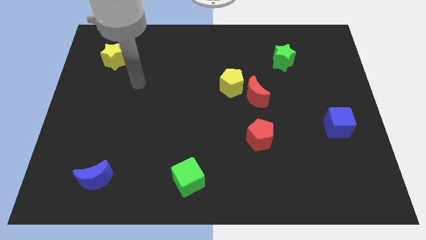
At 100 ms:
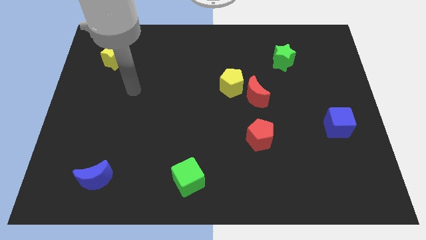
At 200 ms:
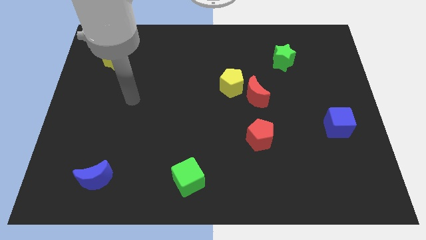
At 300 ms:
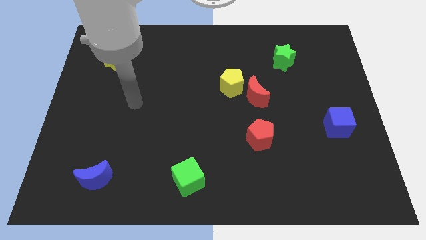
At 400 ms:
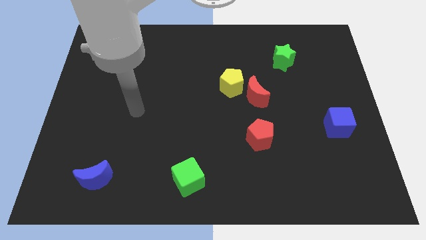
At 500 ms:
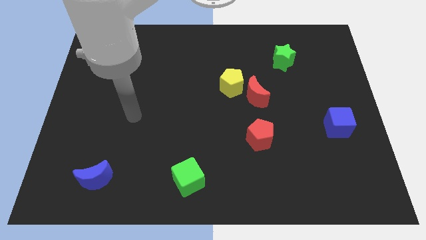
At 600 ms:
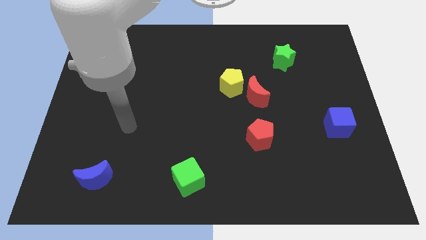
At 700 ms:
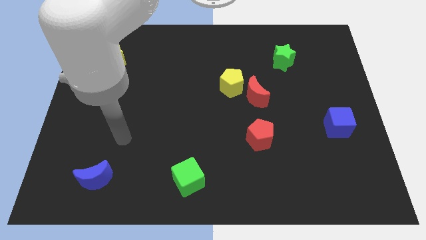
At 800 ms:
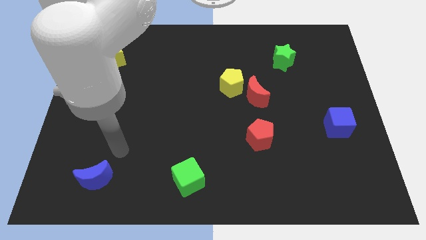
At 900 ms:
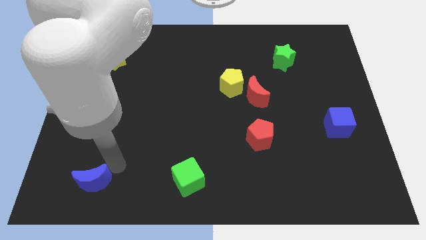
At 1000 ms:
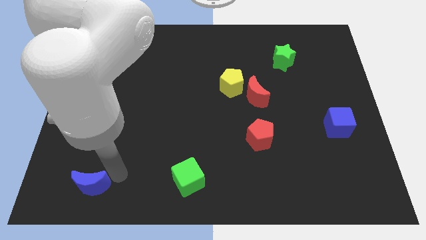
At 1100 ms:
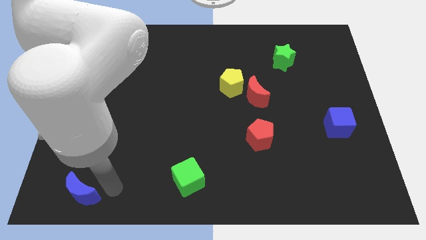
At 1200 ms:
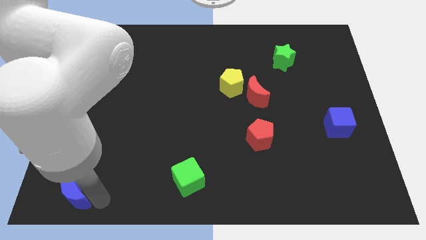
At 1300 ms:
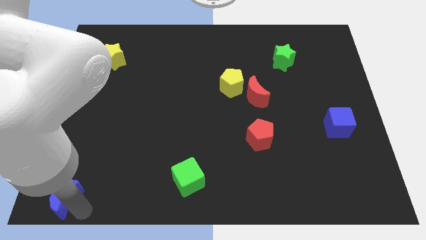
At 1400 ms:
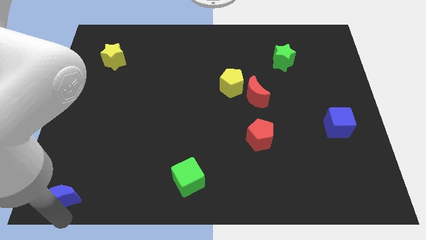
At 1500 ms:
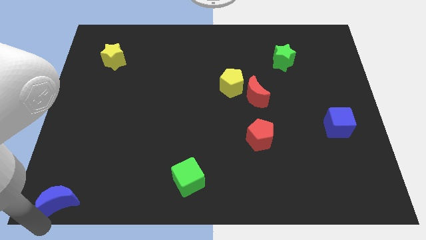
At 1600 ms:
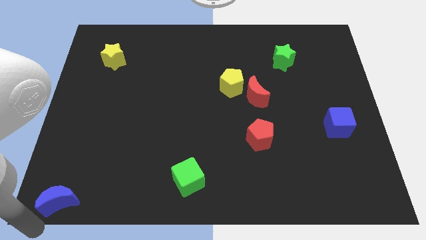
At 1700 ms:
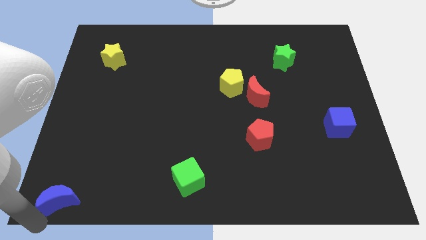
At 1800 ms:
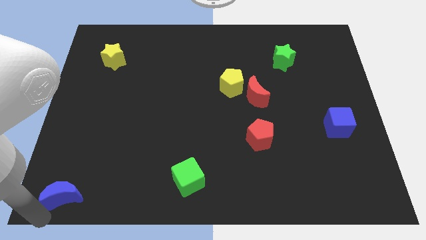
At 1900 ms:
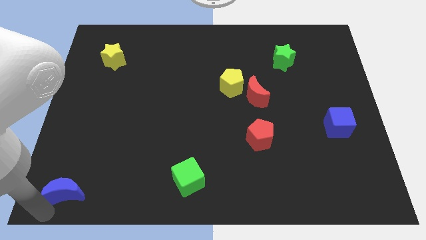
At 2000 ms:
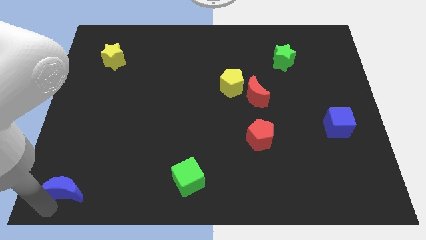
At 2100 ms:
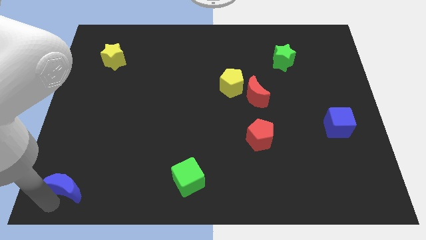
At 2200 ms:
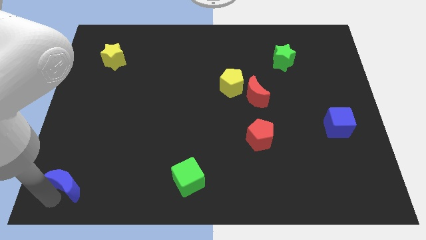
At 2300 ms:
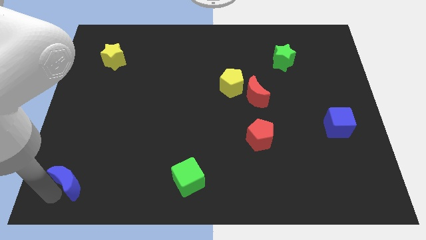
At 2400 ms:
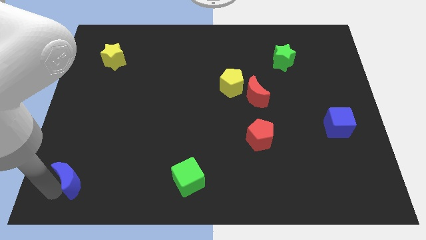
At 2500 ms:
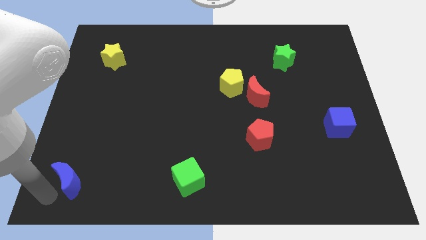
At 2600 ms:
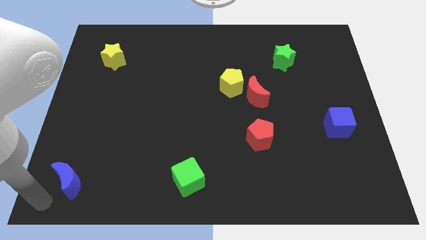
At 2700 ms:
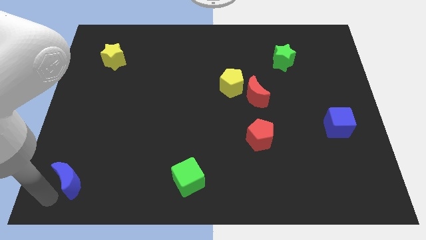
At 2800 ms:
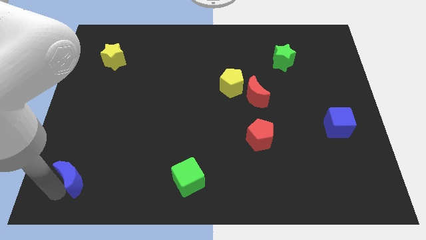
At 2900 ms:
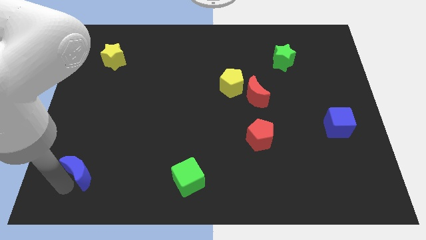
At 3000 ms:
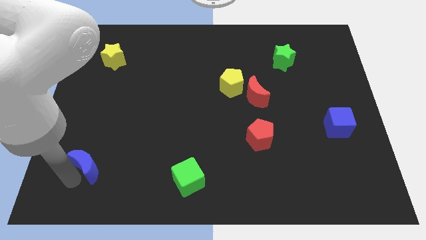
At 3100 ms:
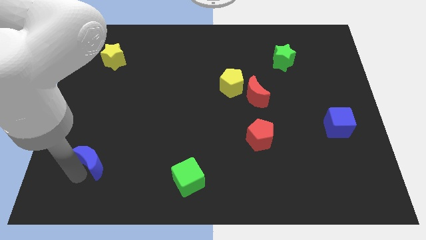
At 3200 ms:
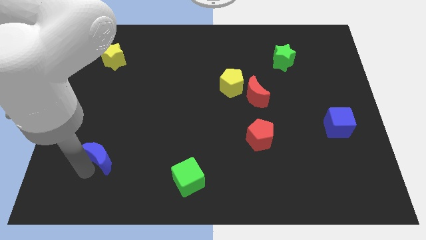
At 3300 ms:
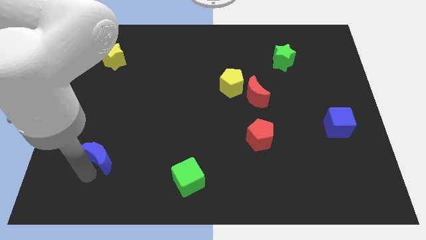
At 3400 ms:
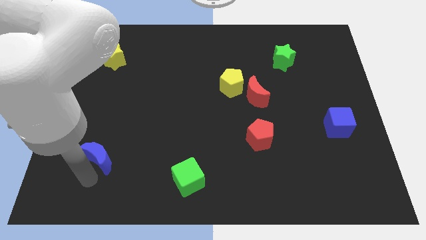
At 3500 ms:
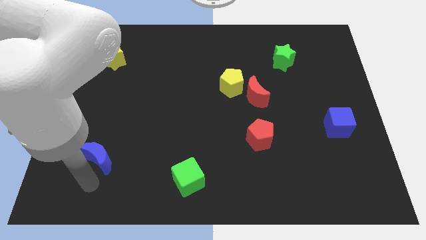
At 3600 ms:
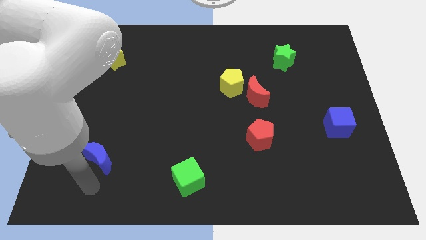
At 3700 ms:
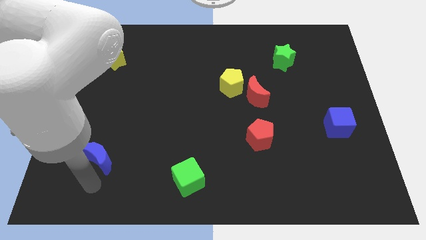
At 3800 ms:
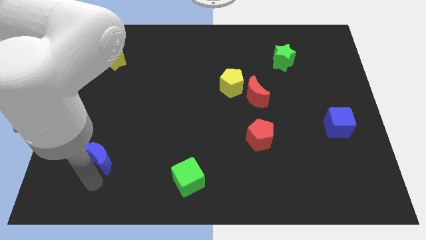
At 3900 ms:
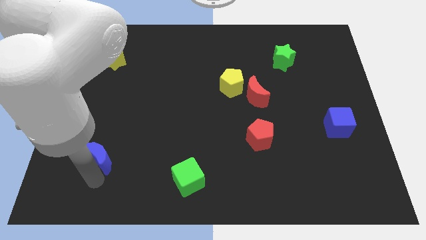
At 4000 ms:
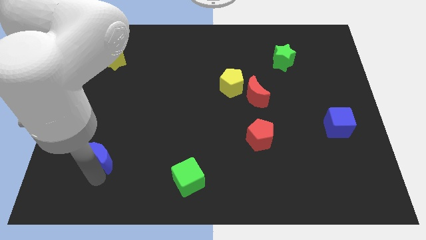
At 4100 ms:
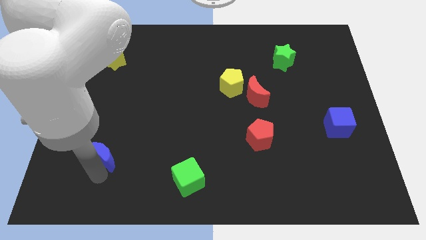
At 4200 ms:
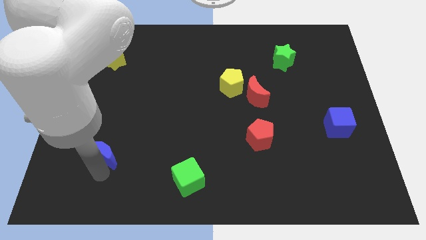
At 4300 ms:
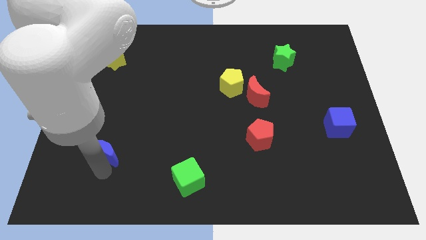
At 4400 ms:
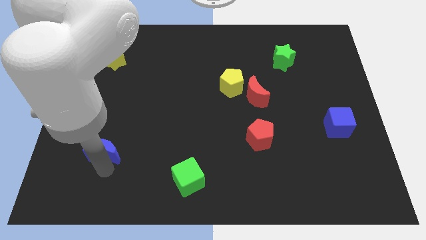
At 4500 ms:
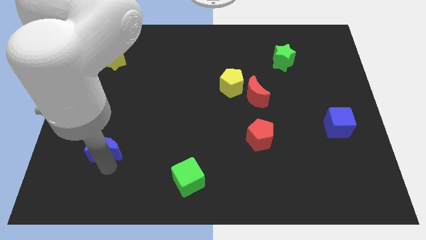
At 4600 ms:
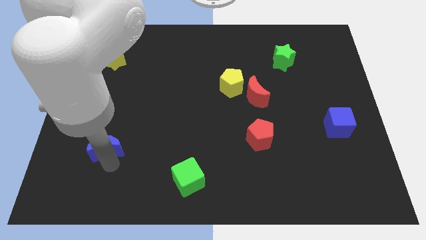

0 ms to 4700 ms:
push the blue moon upwards a little

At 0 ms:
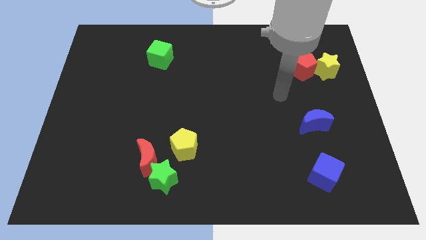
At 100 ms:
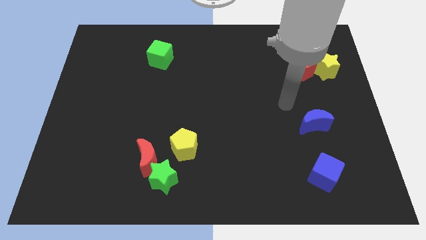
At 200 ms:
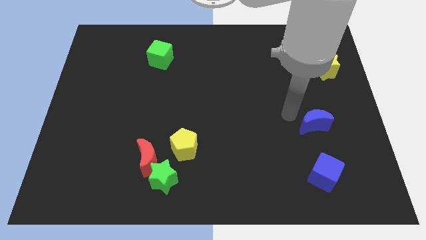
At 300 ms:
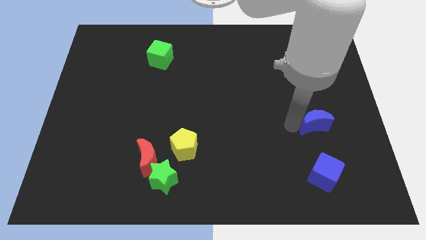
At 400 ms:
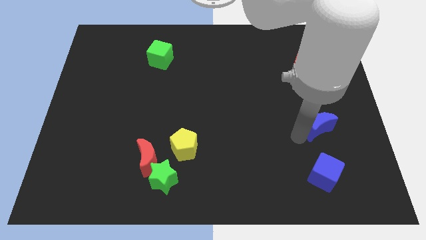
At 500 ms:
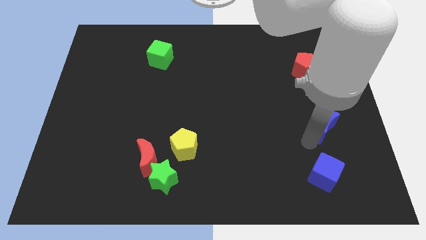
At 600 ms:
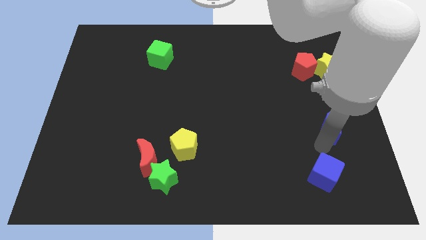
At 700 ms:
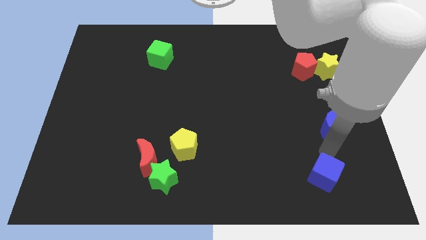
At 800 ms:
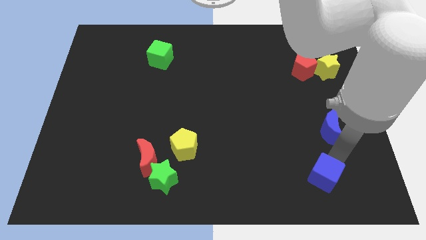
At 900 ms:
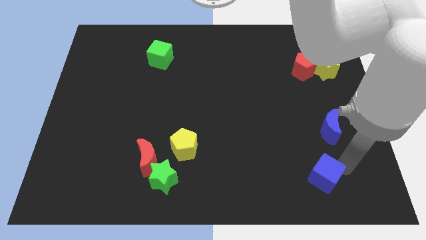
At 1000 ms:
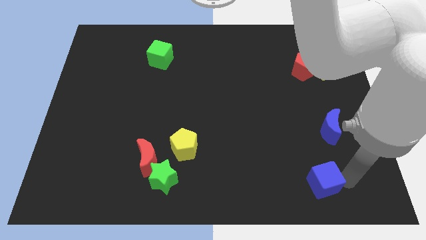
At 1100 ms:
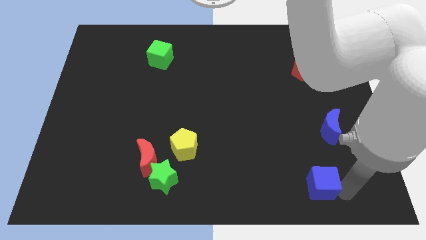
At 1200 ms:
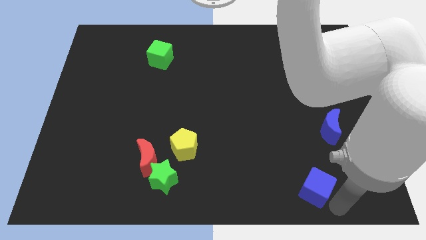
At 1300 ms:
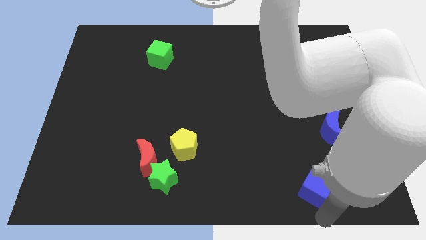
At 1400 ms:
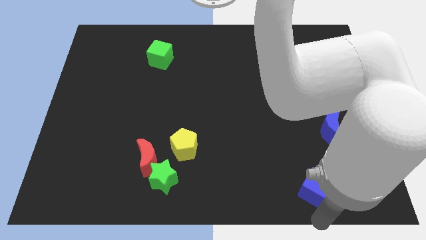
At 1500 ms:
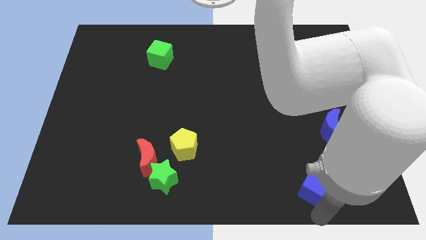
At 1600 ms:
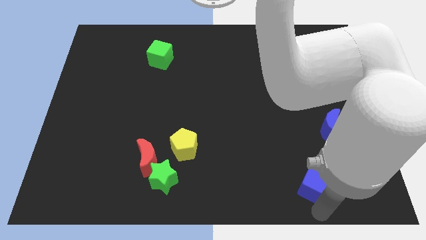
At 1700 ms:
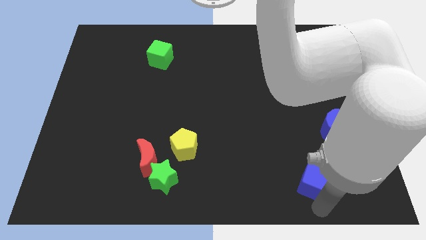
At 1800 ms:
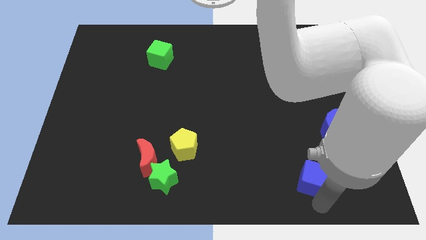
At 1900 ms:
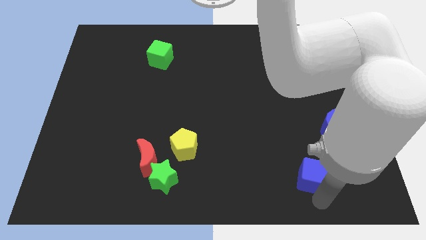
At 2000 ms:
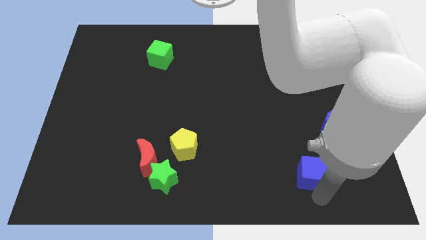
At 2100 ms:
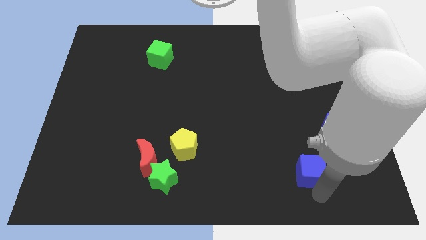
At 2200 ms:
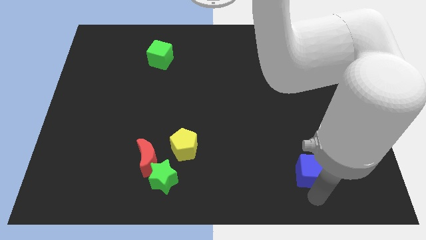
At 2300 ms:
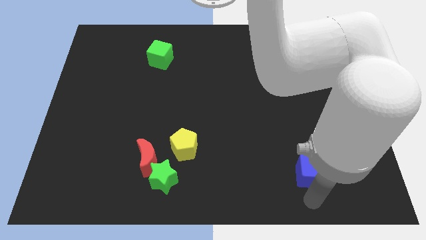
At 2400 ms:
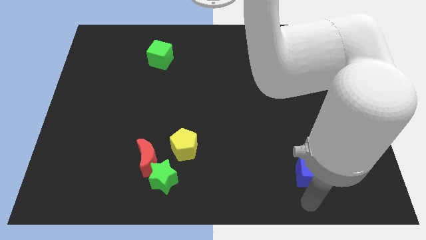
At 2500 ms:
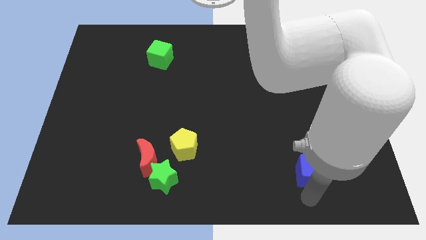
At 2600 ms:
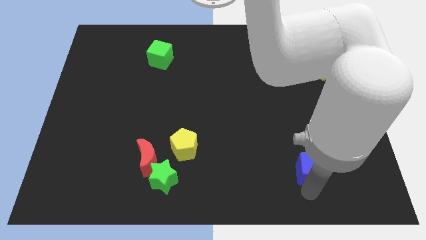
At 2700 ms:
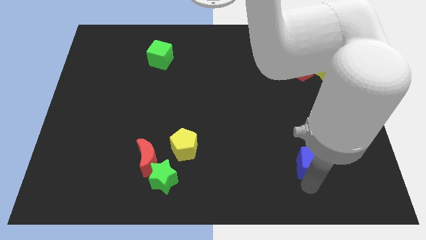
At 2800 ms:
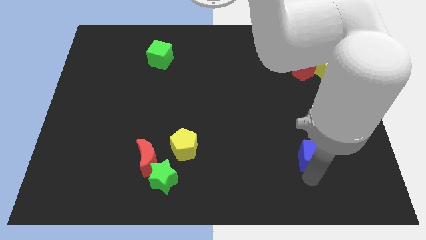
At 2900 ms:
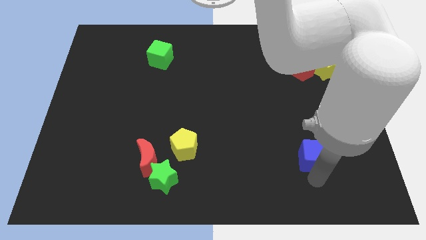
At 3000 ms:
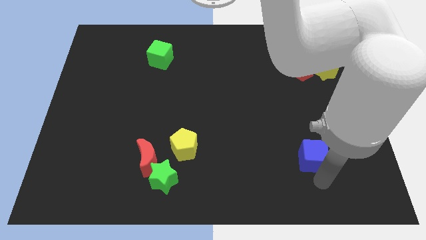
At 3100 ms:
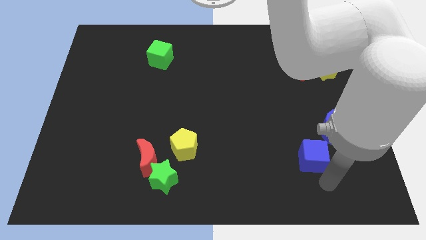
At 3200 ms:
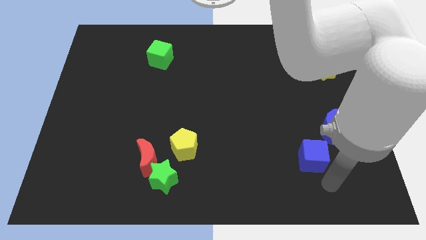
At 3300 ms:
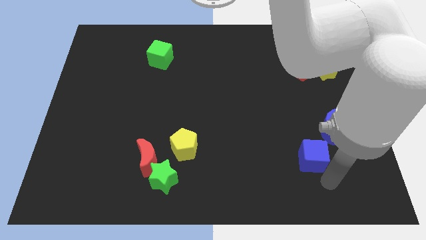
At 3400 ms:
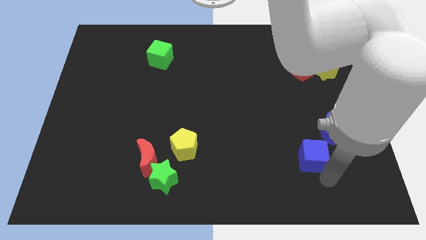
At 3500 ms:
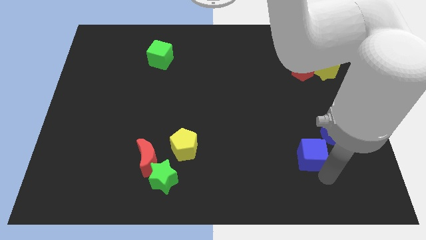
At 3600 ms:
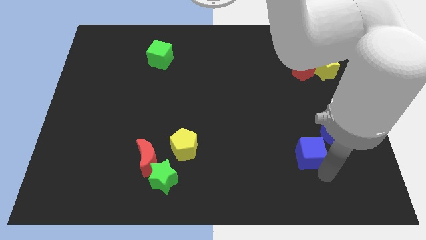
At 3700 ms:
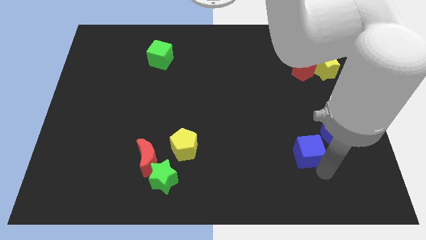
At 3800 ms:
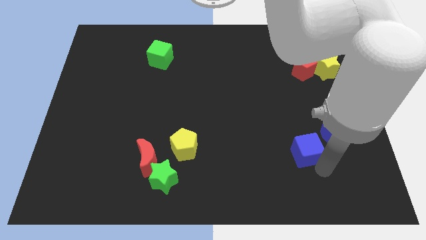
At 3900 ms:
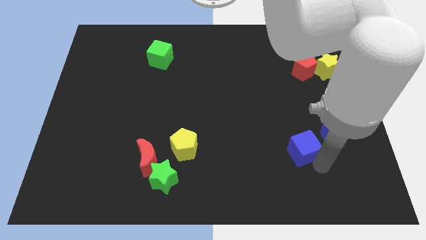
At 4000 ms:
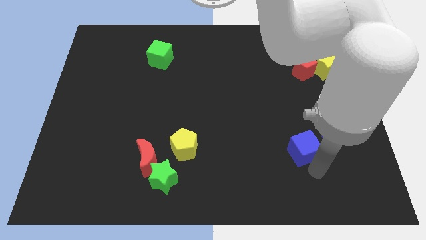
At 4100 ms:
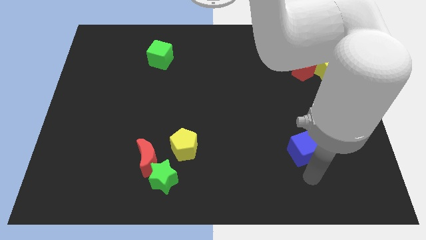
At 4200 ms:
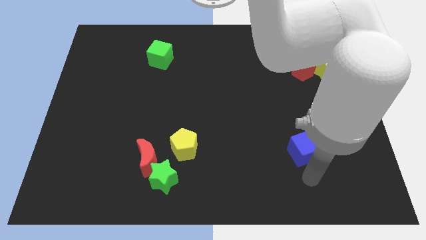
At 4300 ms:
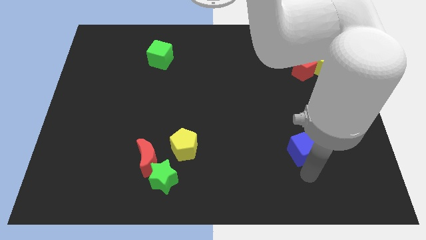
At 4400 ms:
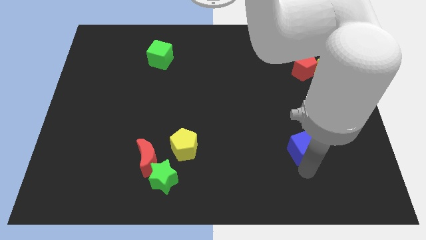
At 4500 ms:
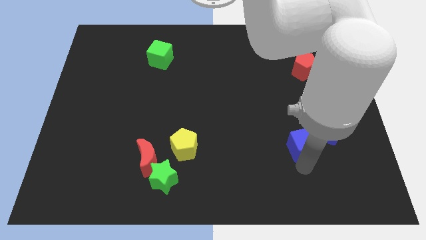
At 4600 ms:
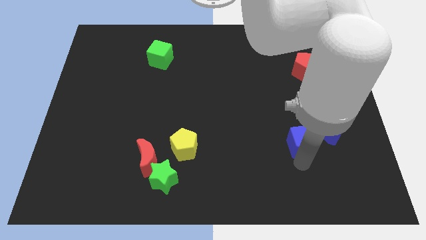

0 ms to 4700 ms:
slide the blue cube upwards a bit
